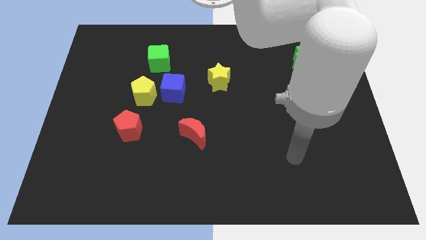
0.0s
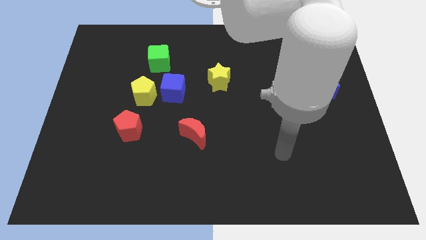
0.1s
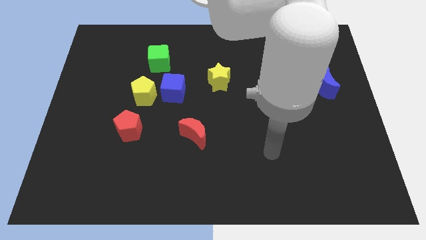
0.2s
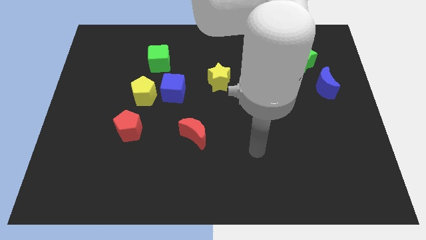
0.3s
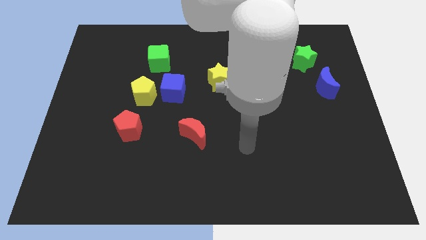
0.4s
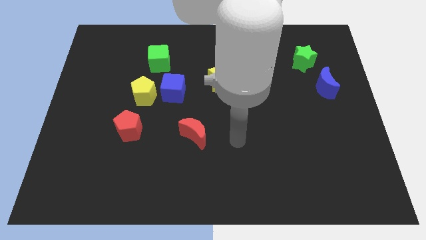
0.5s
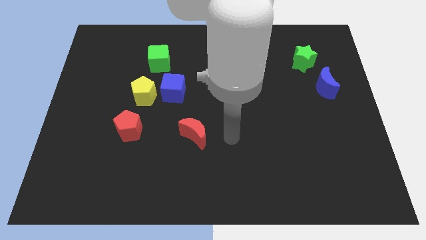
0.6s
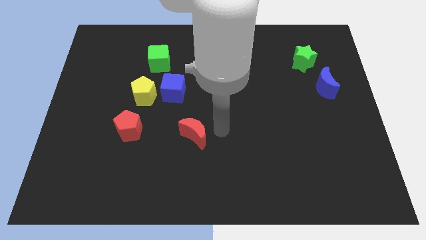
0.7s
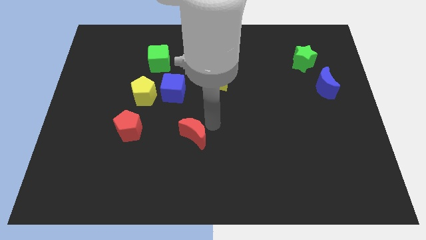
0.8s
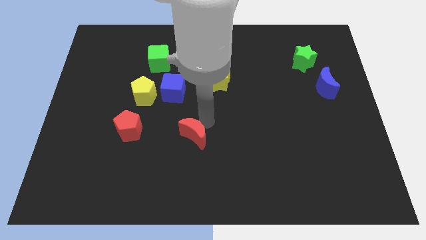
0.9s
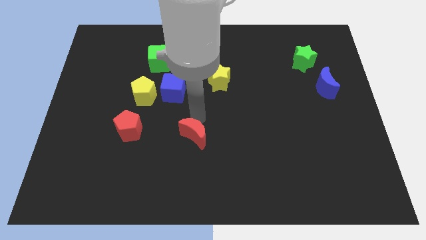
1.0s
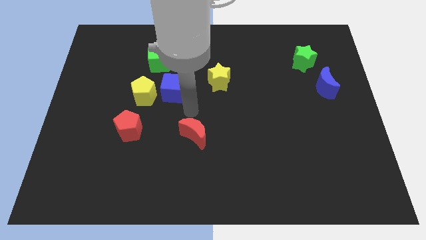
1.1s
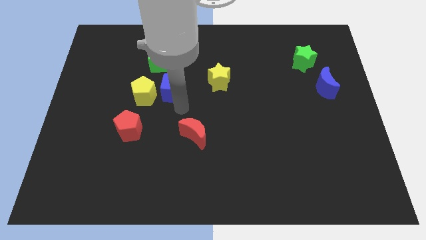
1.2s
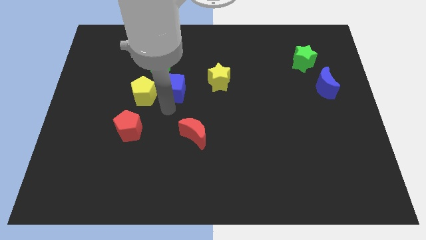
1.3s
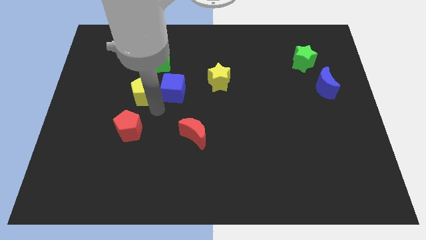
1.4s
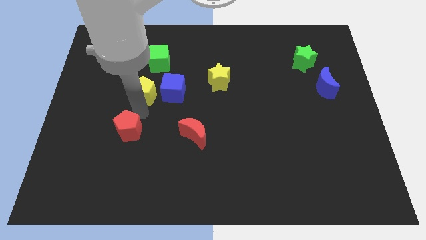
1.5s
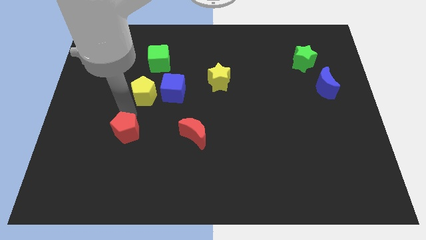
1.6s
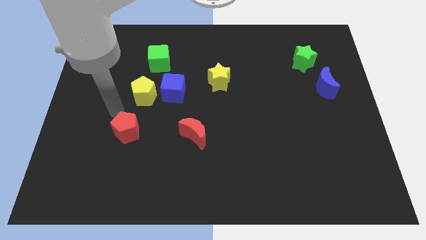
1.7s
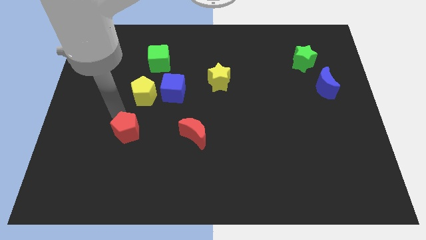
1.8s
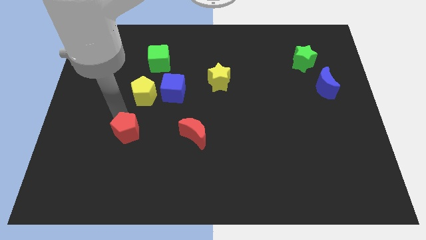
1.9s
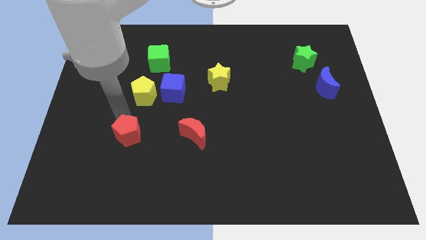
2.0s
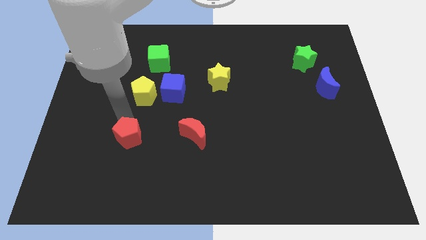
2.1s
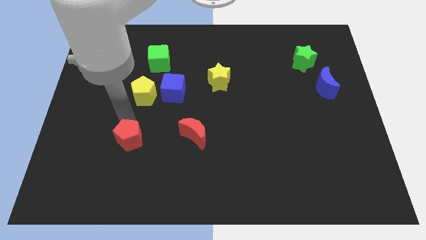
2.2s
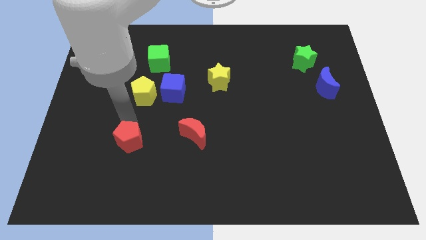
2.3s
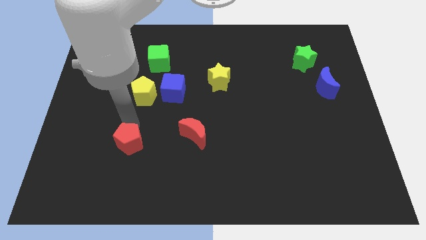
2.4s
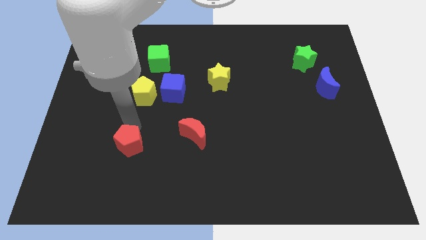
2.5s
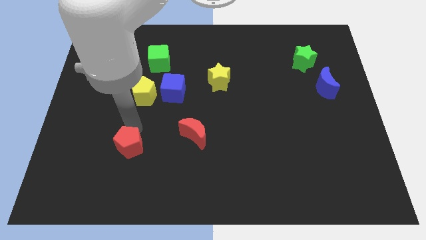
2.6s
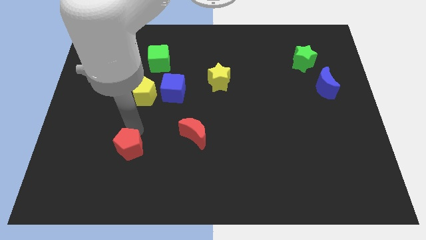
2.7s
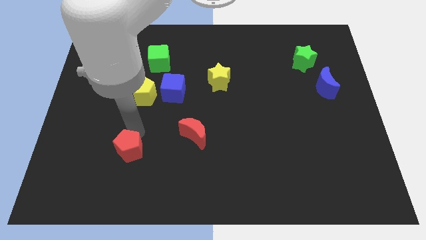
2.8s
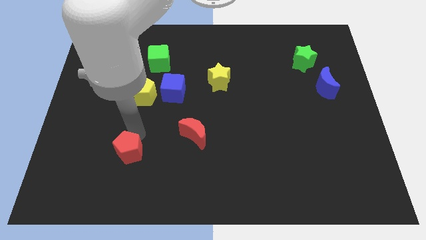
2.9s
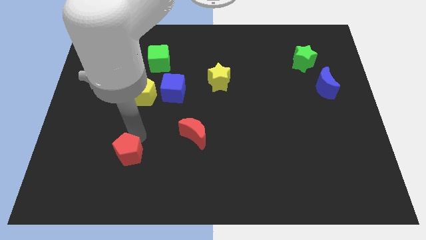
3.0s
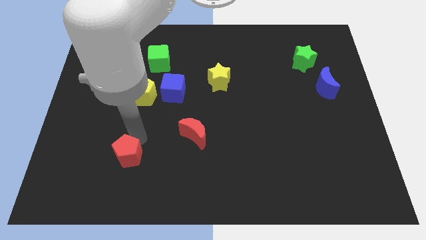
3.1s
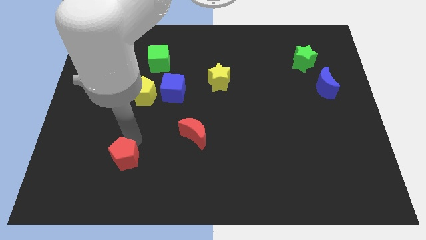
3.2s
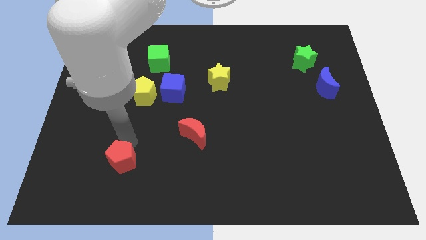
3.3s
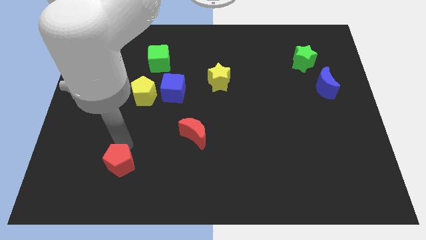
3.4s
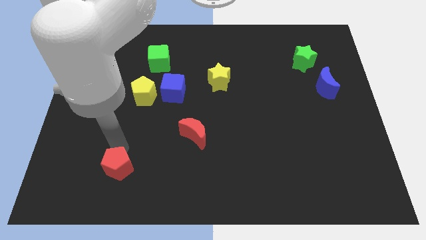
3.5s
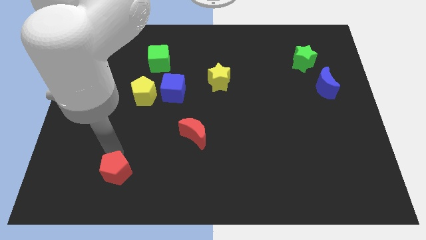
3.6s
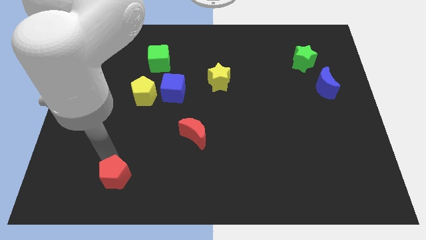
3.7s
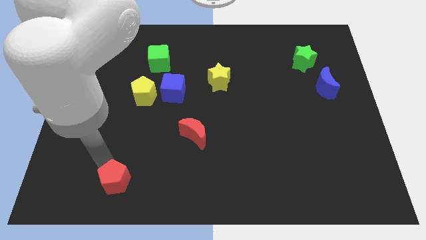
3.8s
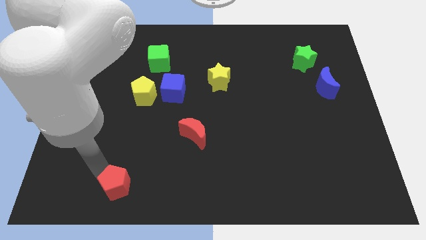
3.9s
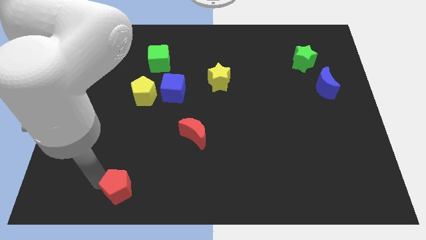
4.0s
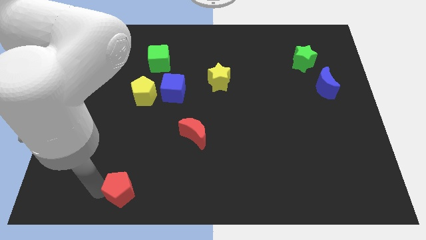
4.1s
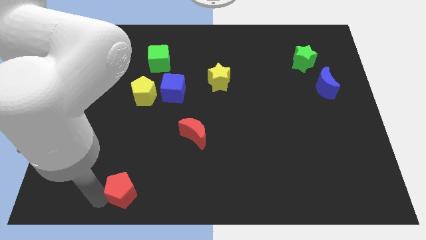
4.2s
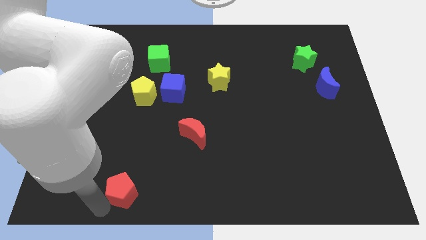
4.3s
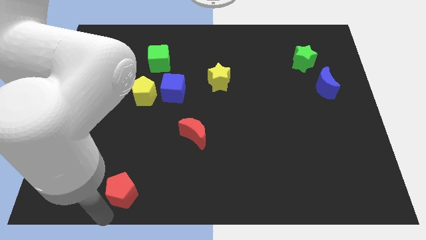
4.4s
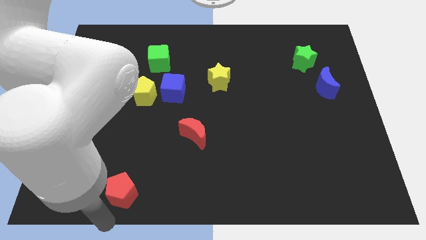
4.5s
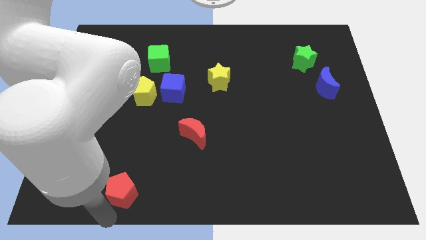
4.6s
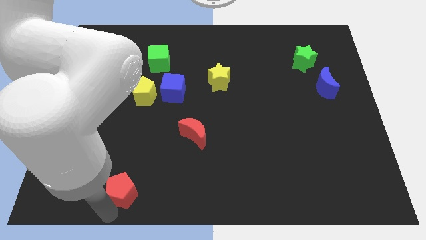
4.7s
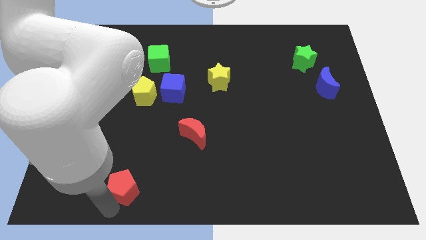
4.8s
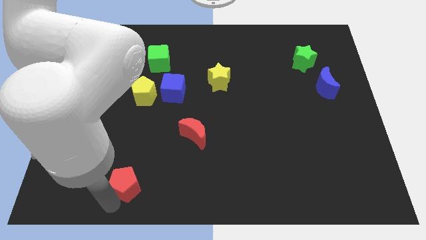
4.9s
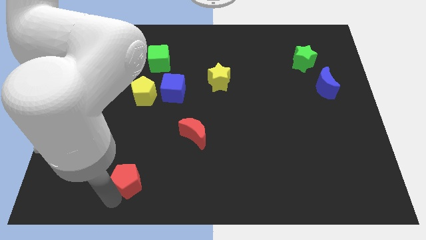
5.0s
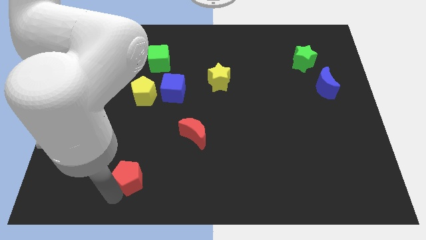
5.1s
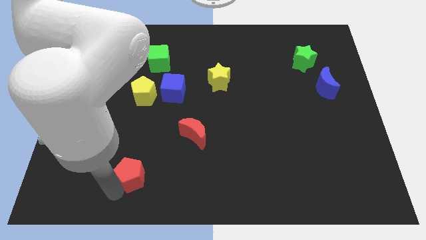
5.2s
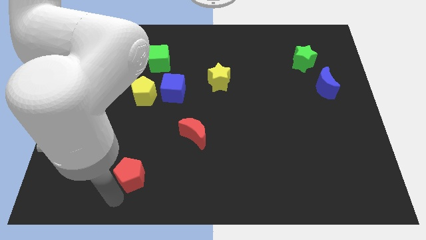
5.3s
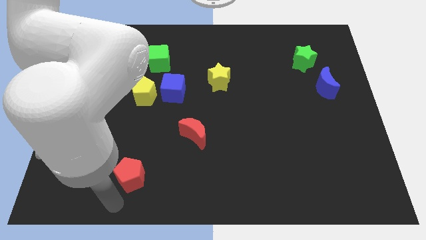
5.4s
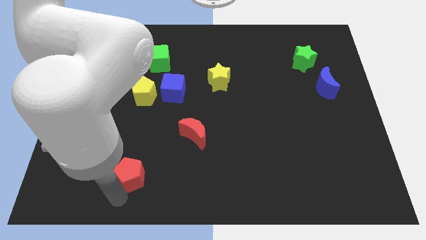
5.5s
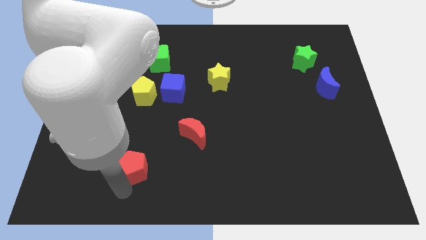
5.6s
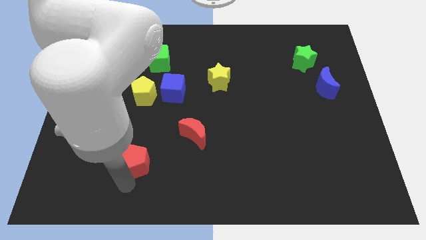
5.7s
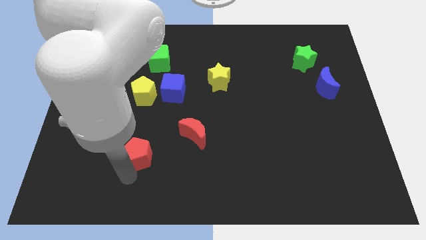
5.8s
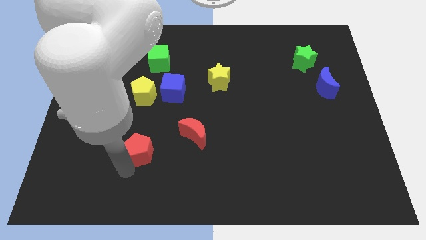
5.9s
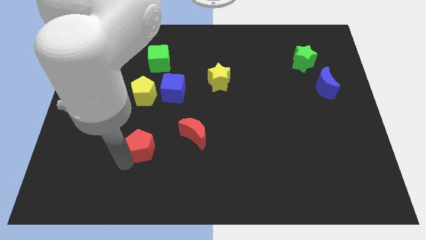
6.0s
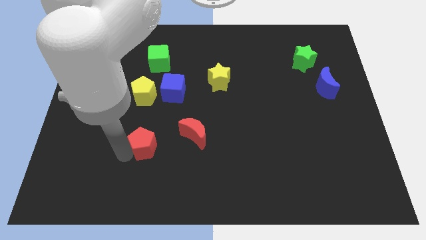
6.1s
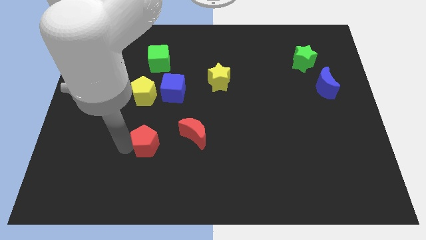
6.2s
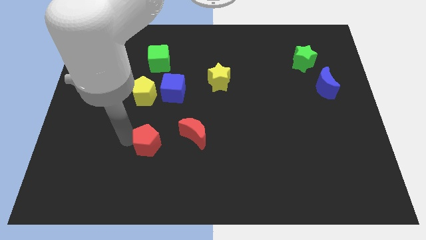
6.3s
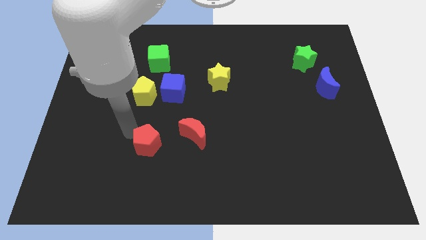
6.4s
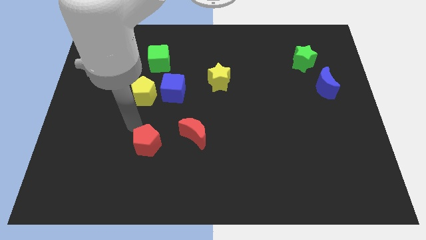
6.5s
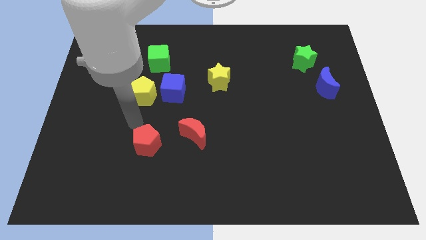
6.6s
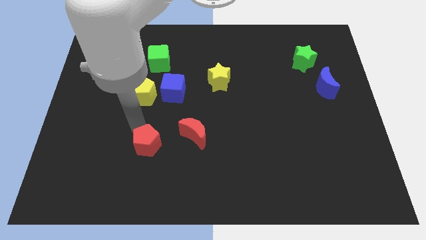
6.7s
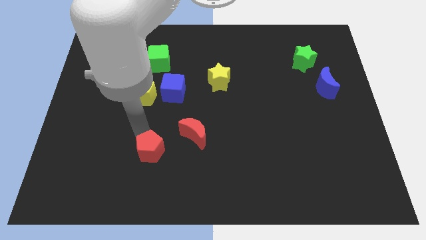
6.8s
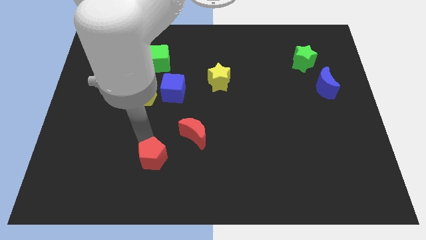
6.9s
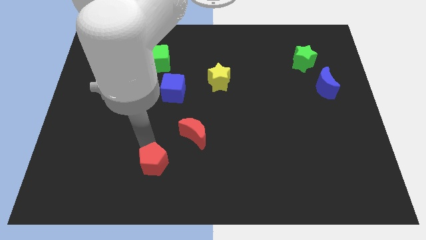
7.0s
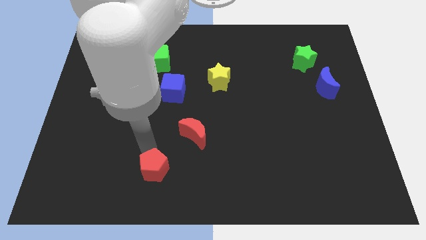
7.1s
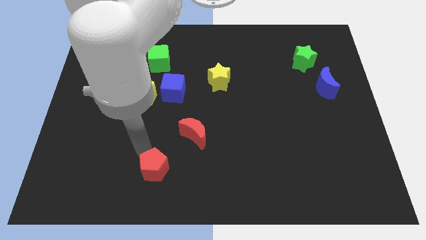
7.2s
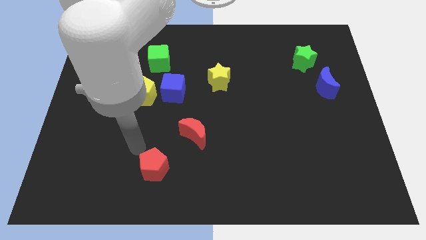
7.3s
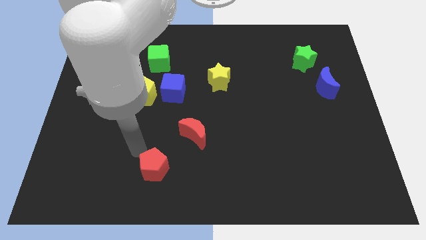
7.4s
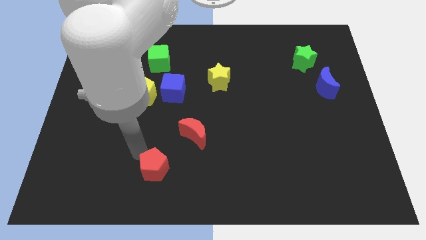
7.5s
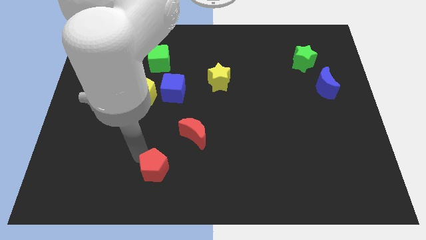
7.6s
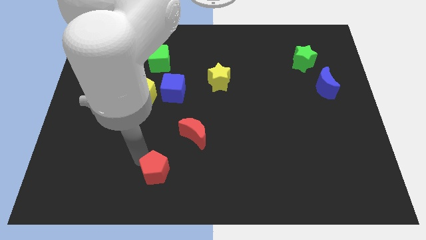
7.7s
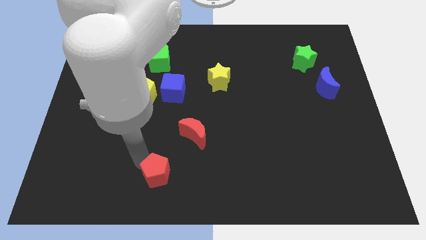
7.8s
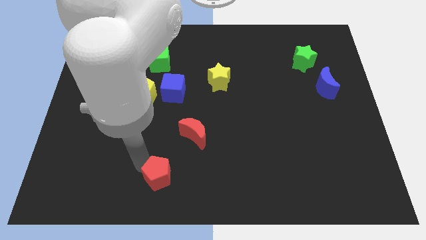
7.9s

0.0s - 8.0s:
move the red pentagon to the bottom
